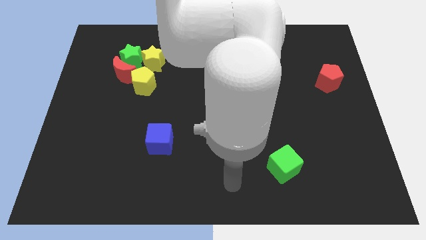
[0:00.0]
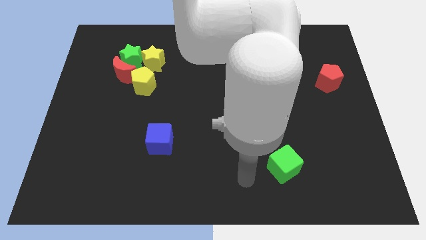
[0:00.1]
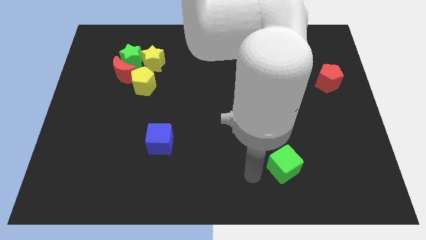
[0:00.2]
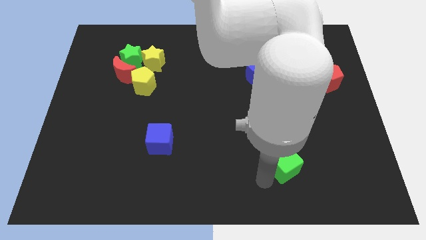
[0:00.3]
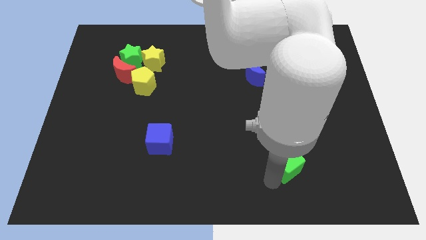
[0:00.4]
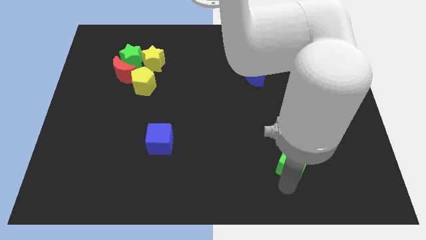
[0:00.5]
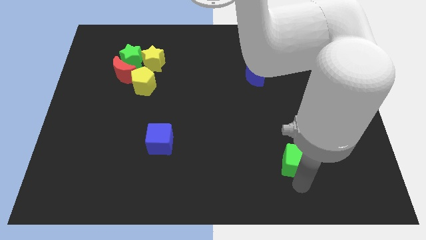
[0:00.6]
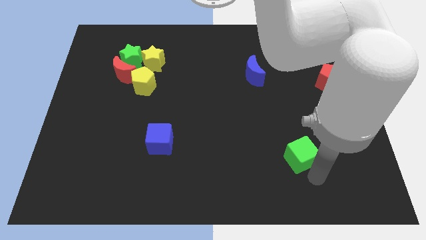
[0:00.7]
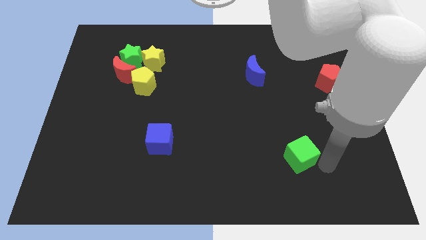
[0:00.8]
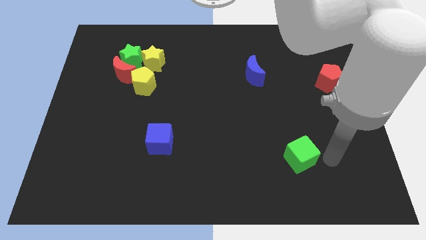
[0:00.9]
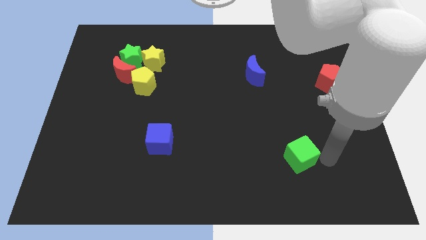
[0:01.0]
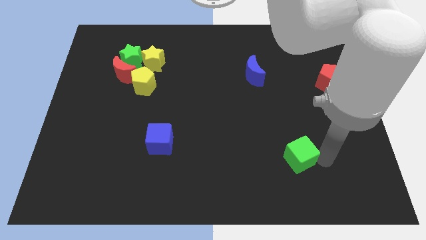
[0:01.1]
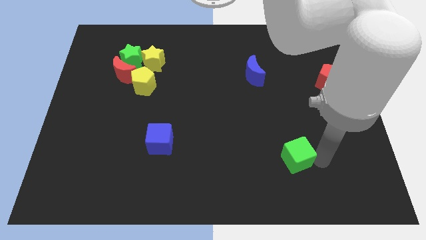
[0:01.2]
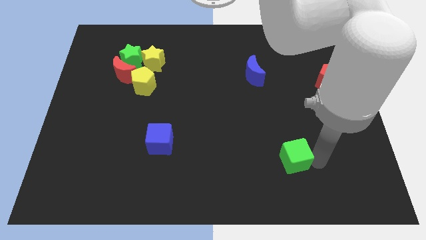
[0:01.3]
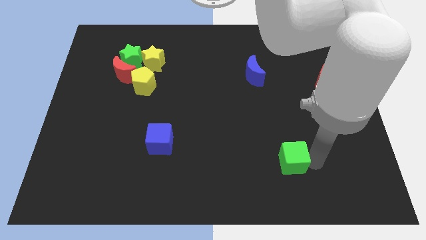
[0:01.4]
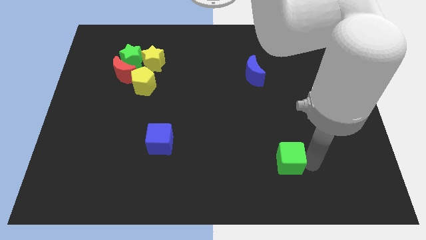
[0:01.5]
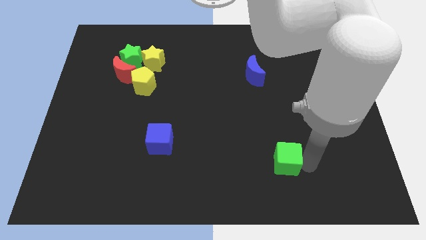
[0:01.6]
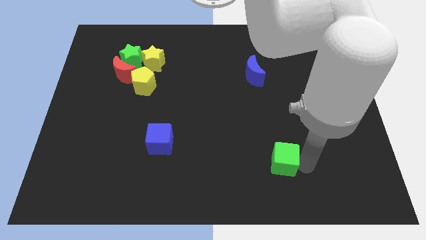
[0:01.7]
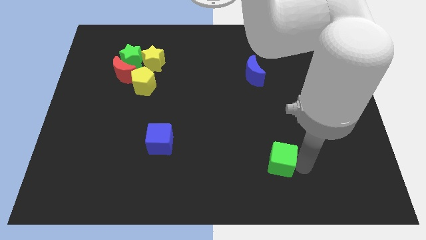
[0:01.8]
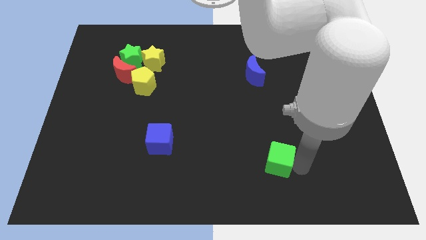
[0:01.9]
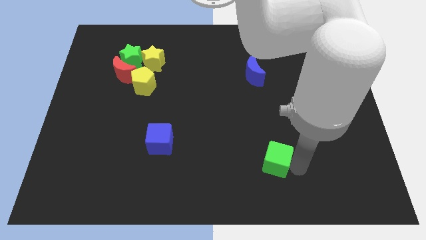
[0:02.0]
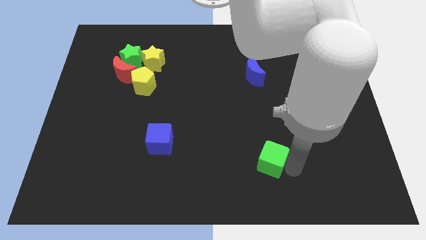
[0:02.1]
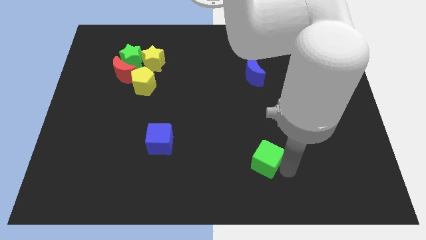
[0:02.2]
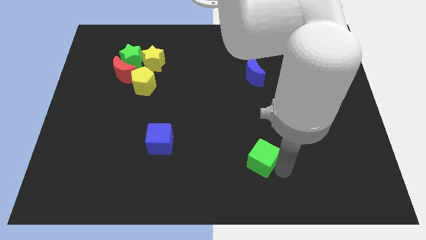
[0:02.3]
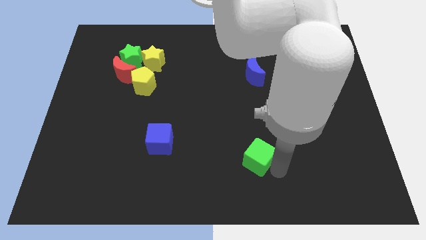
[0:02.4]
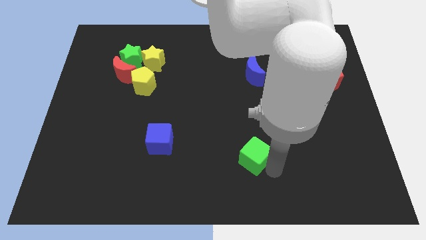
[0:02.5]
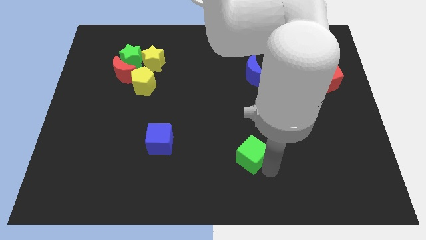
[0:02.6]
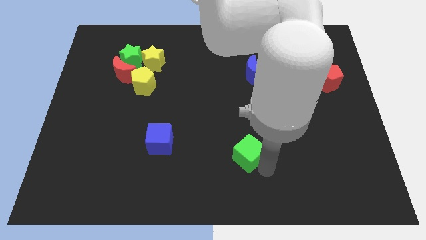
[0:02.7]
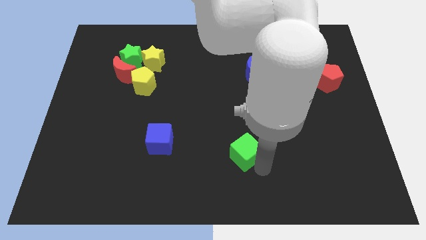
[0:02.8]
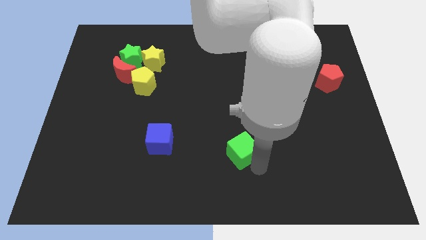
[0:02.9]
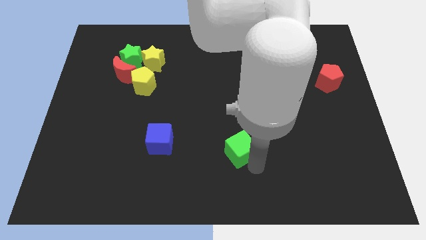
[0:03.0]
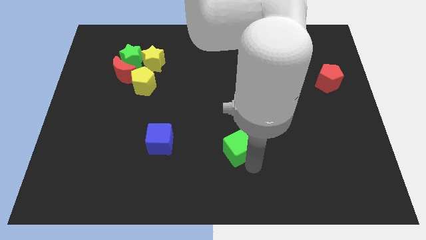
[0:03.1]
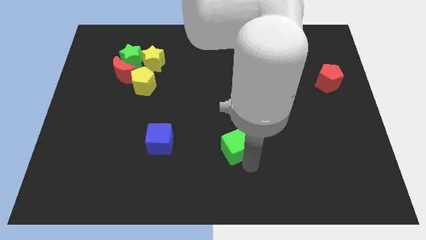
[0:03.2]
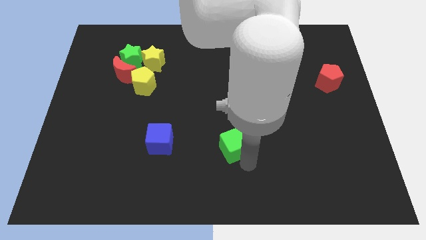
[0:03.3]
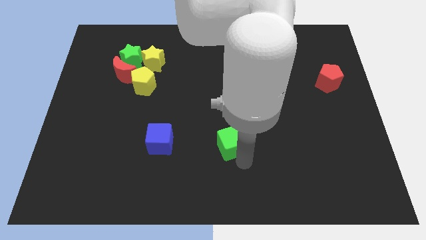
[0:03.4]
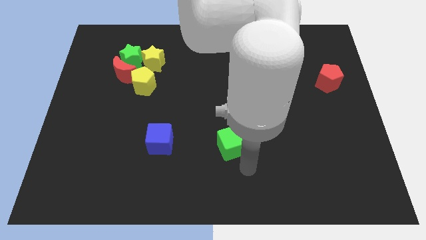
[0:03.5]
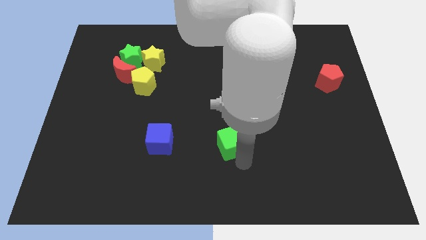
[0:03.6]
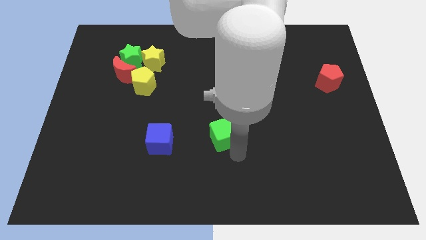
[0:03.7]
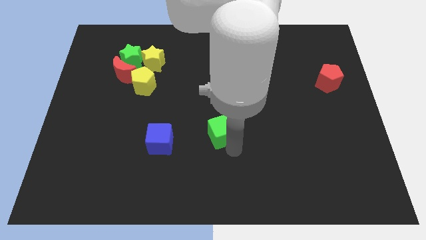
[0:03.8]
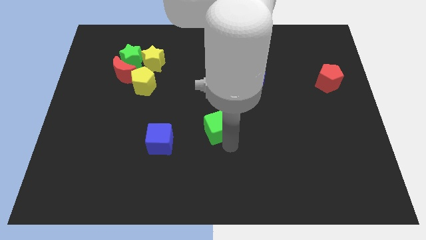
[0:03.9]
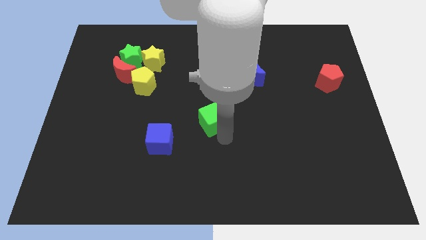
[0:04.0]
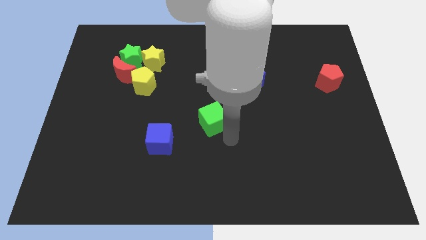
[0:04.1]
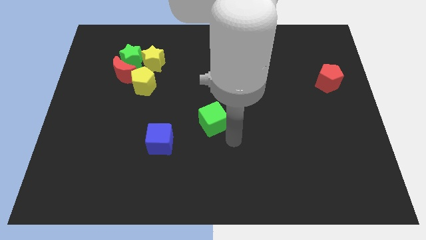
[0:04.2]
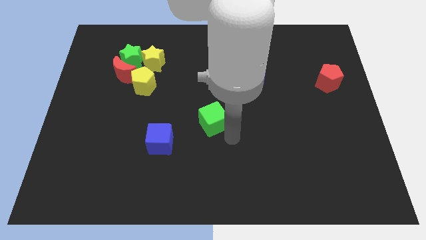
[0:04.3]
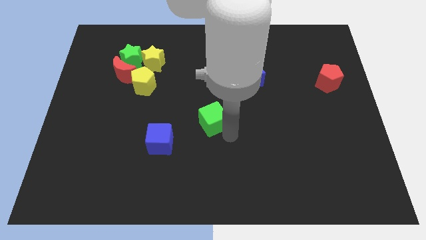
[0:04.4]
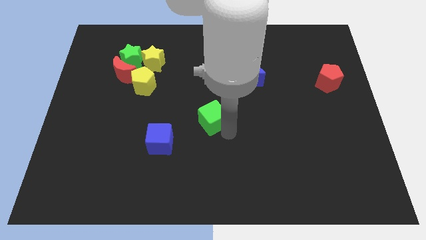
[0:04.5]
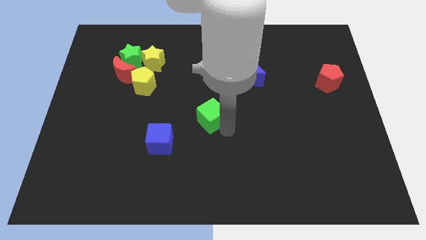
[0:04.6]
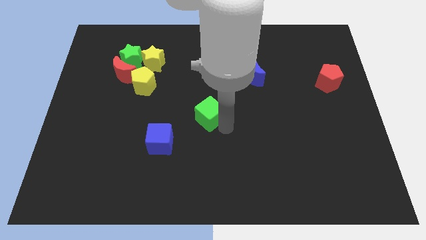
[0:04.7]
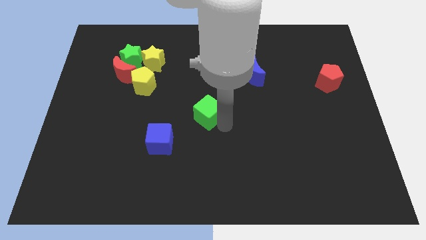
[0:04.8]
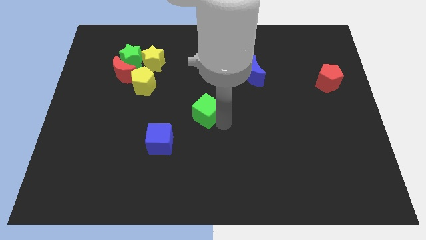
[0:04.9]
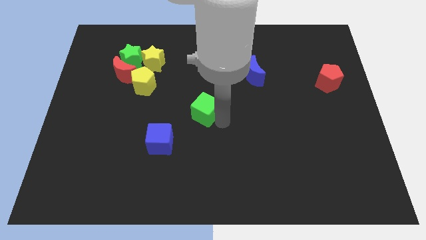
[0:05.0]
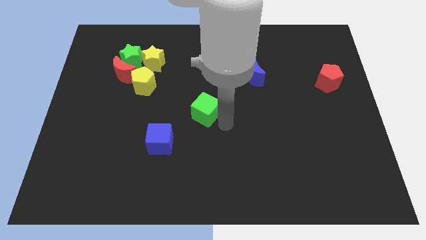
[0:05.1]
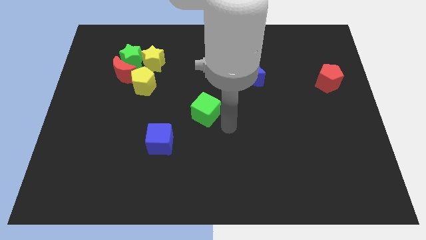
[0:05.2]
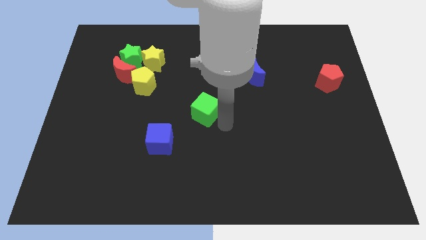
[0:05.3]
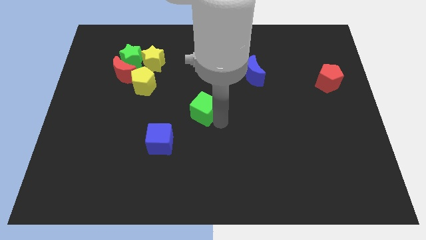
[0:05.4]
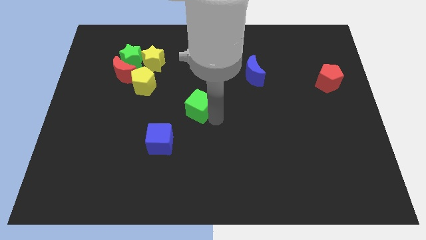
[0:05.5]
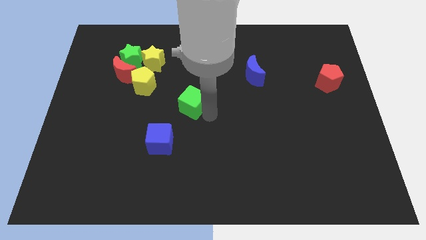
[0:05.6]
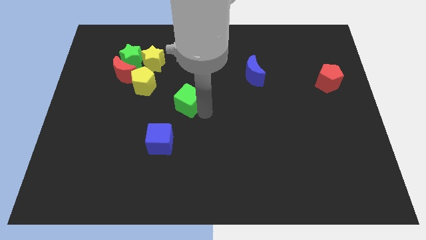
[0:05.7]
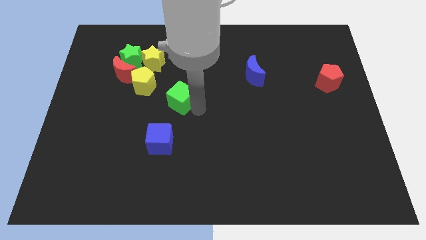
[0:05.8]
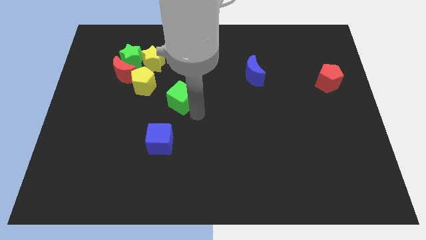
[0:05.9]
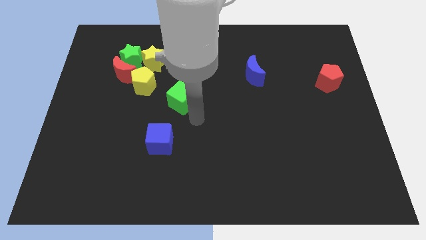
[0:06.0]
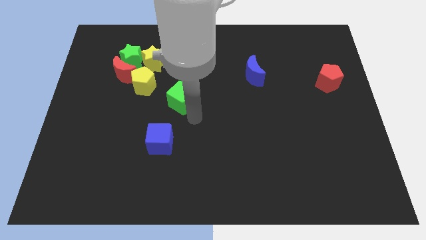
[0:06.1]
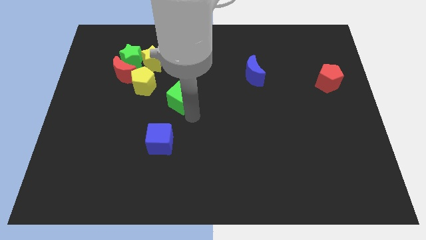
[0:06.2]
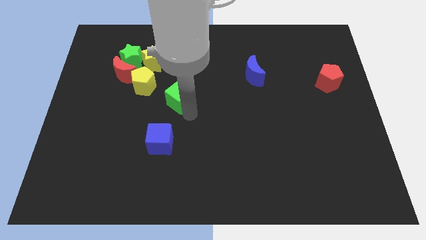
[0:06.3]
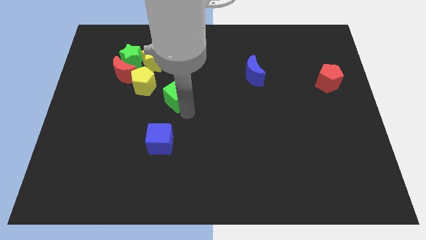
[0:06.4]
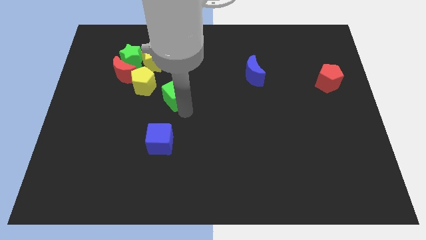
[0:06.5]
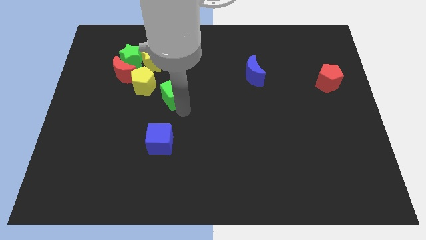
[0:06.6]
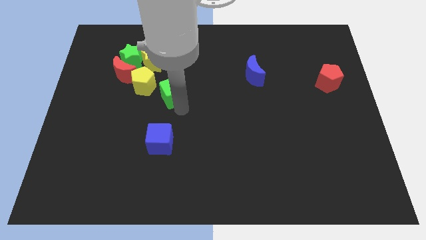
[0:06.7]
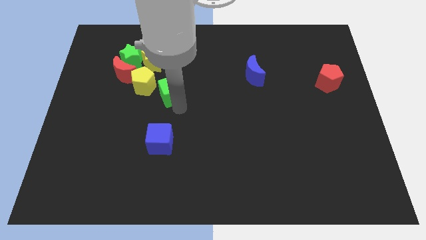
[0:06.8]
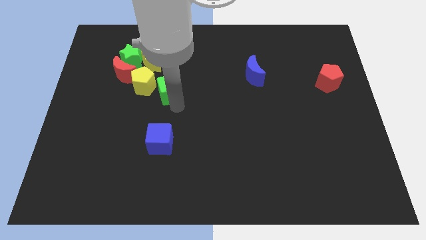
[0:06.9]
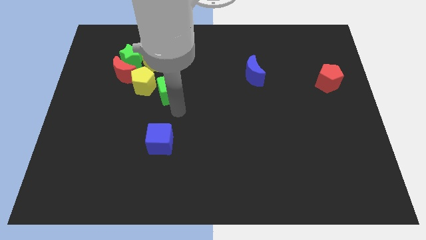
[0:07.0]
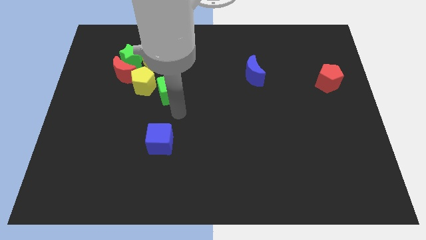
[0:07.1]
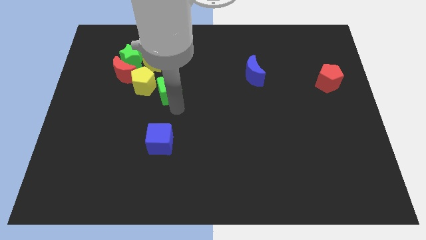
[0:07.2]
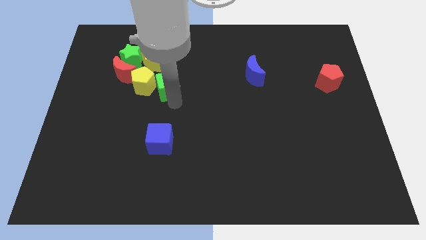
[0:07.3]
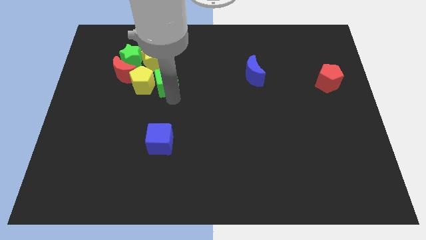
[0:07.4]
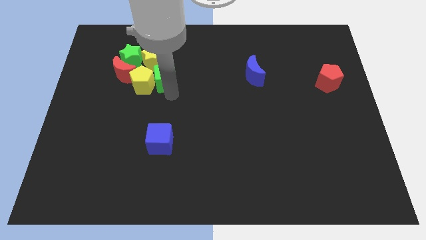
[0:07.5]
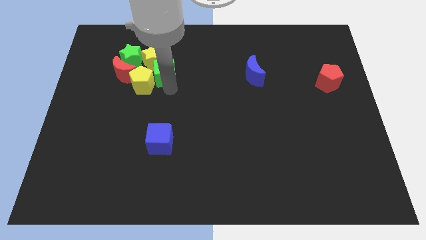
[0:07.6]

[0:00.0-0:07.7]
push the green cube towards the yellow star

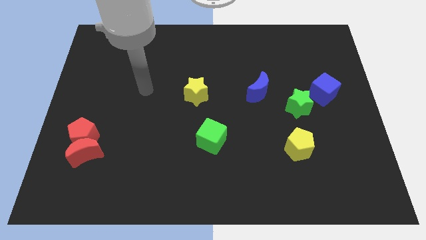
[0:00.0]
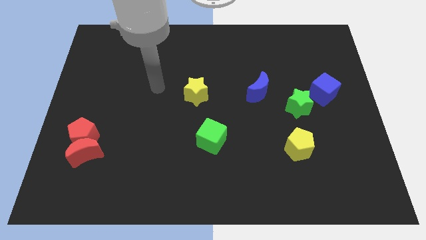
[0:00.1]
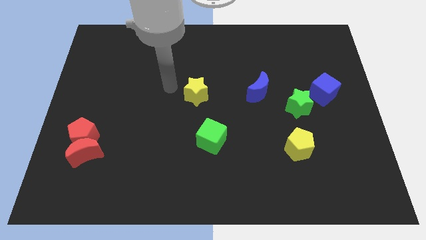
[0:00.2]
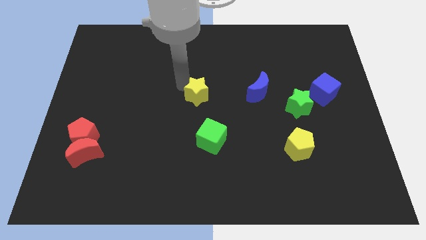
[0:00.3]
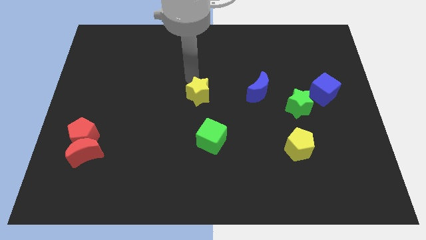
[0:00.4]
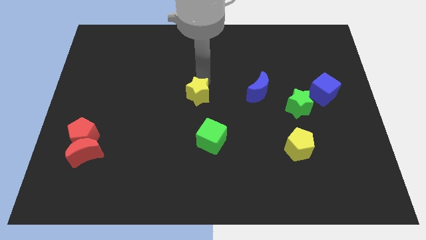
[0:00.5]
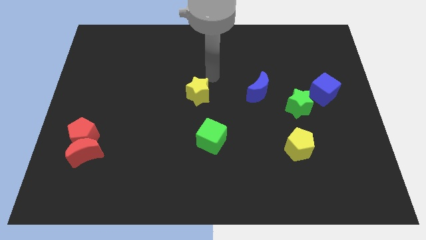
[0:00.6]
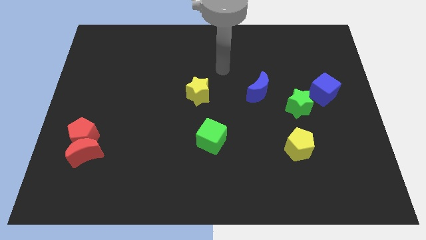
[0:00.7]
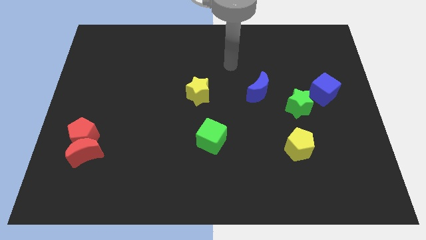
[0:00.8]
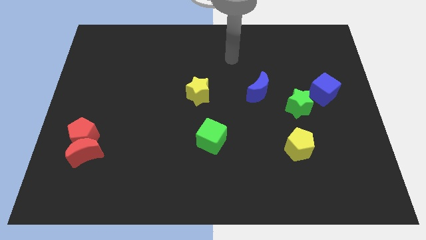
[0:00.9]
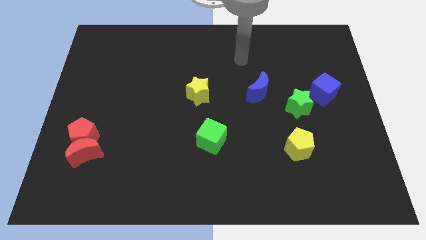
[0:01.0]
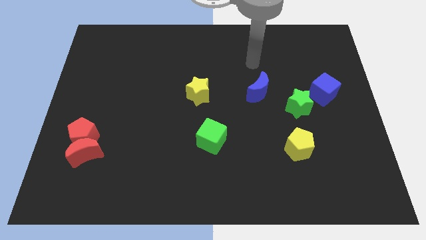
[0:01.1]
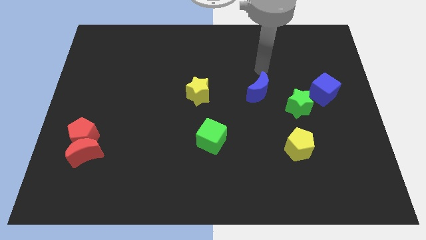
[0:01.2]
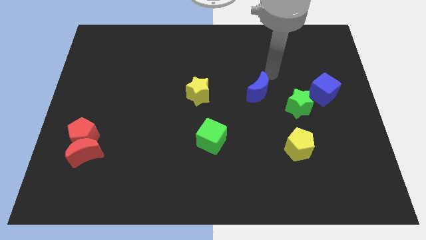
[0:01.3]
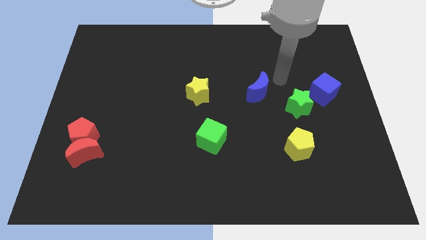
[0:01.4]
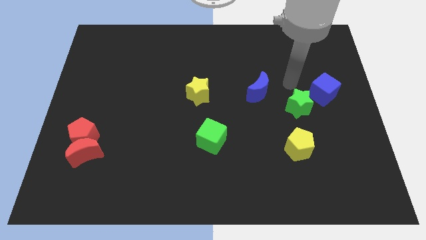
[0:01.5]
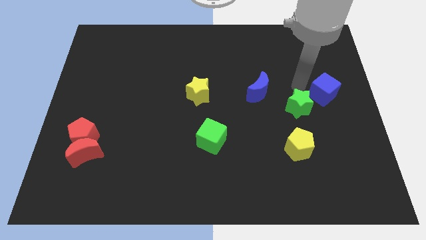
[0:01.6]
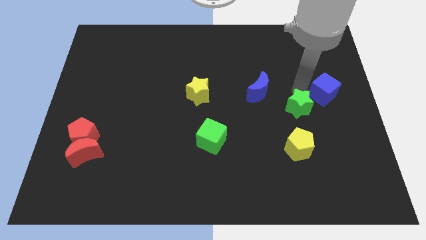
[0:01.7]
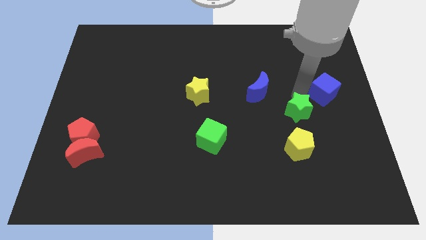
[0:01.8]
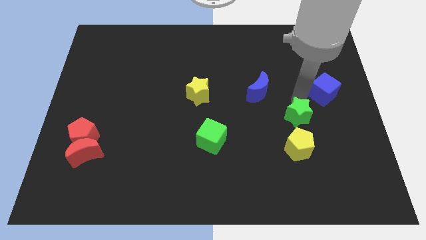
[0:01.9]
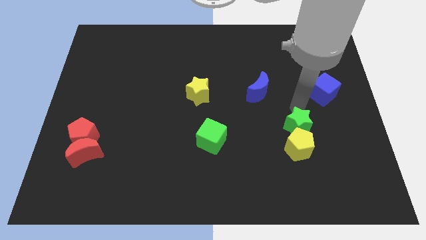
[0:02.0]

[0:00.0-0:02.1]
move the green star next to the yellow pentagon
